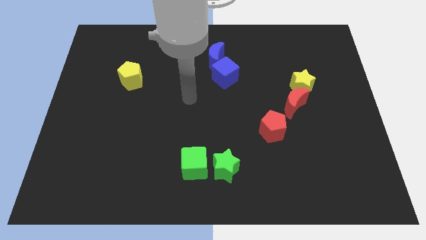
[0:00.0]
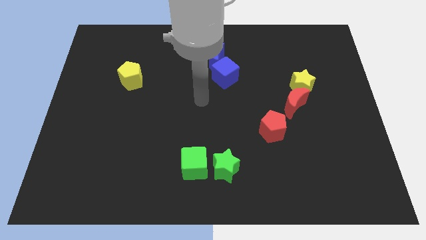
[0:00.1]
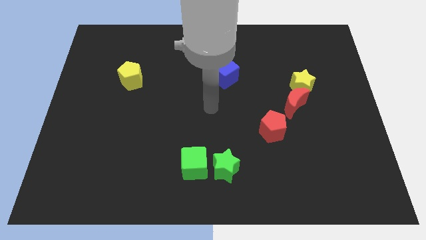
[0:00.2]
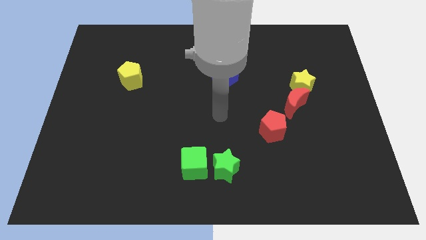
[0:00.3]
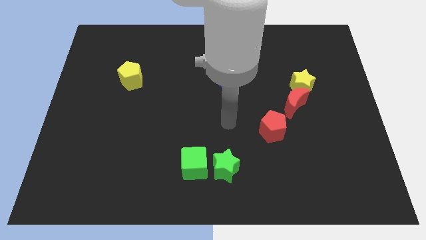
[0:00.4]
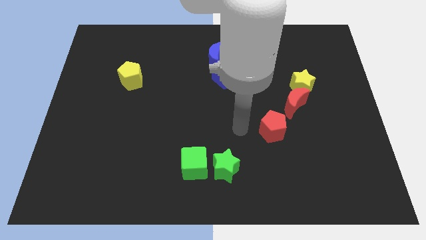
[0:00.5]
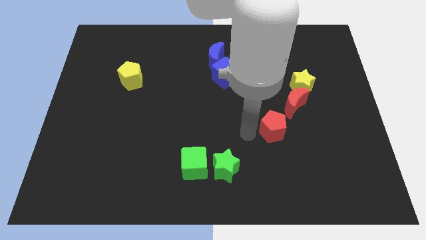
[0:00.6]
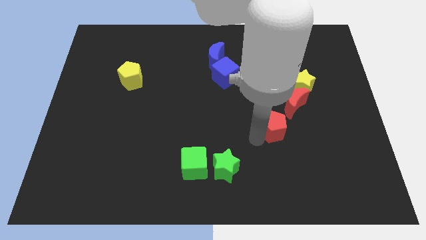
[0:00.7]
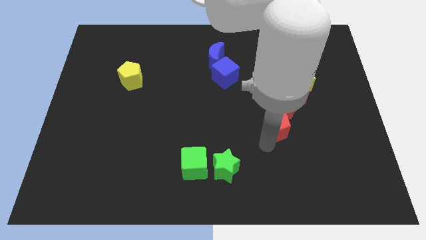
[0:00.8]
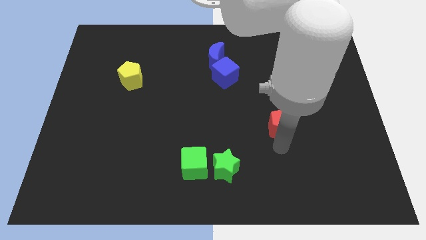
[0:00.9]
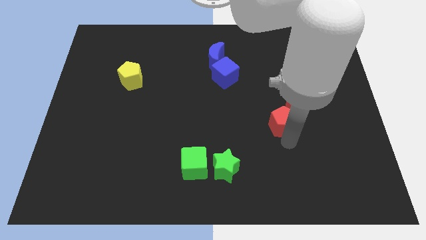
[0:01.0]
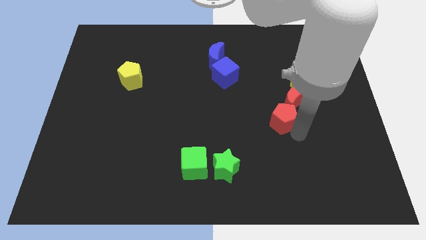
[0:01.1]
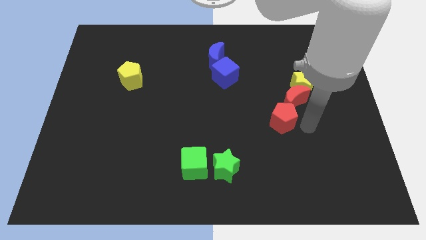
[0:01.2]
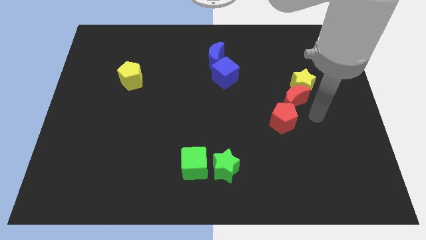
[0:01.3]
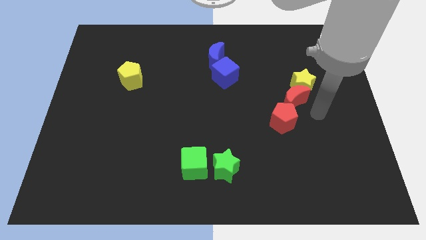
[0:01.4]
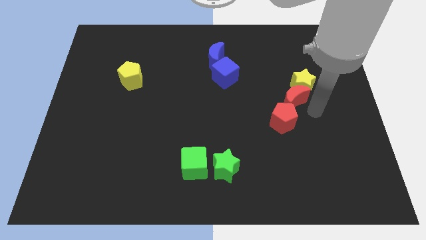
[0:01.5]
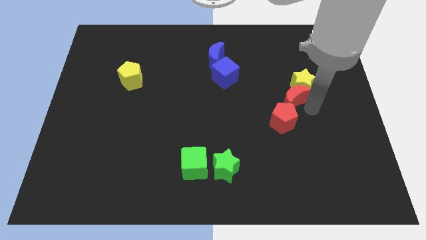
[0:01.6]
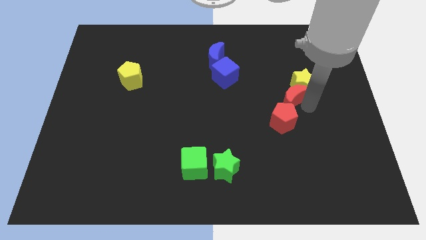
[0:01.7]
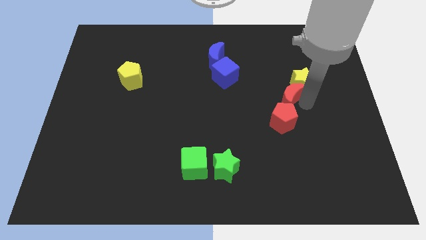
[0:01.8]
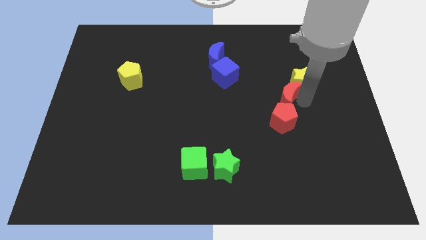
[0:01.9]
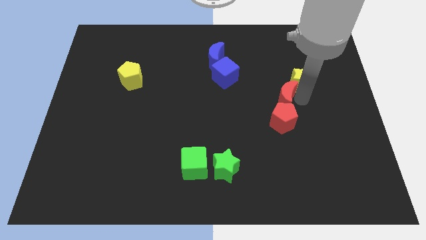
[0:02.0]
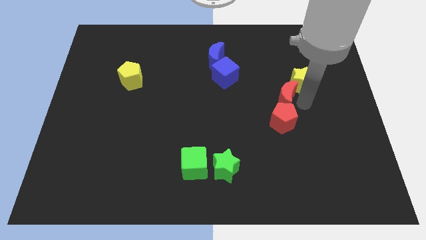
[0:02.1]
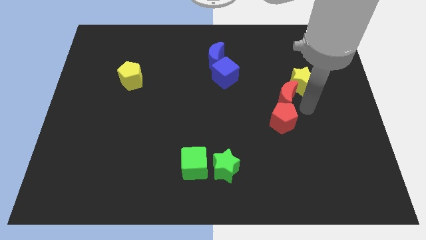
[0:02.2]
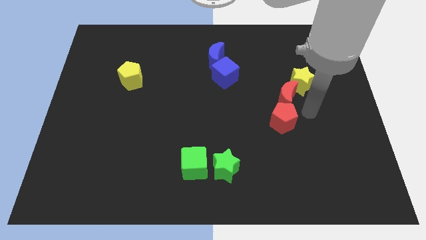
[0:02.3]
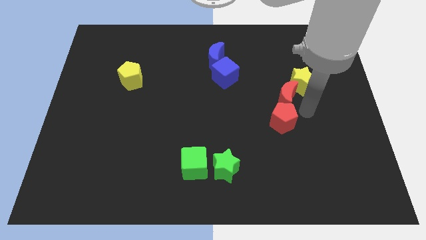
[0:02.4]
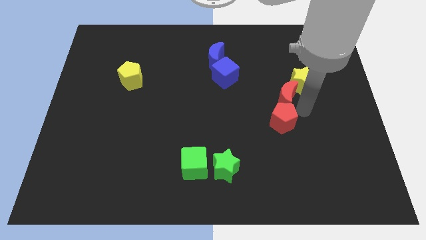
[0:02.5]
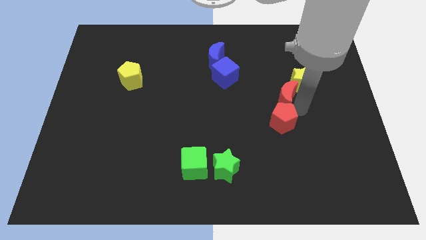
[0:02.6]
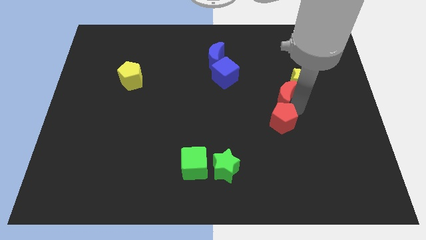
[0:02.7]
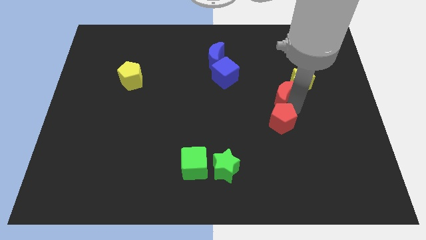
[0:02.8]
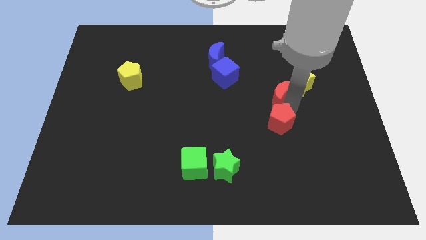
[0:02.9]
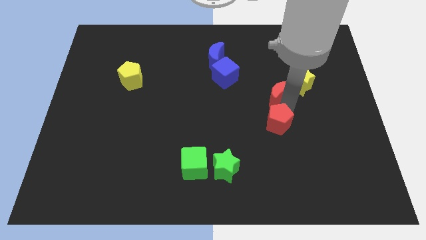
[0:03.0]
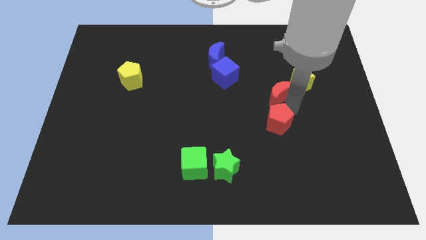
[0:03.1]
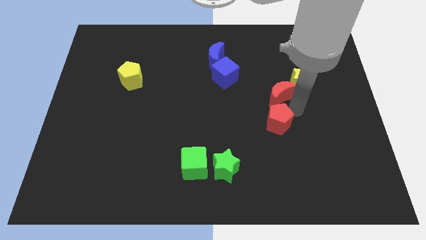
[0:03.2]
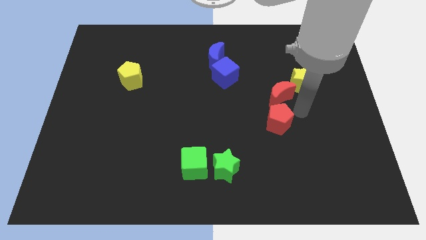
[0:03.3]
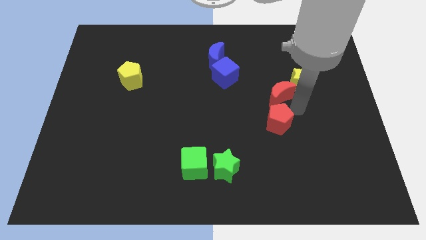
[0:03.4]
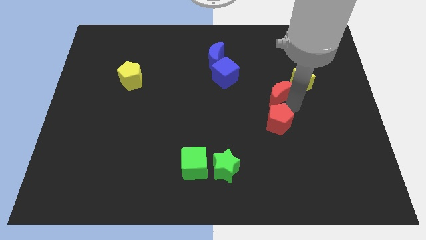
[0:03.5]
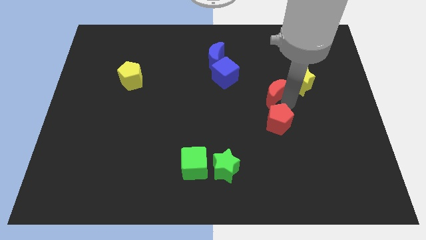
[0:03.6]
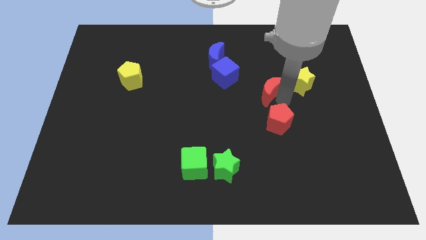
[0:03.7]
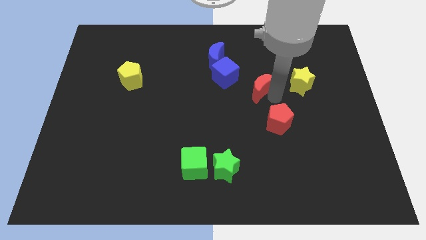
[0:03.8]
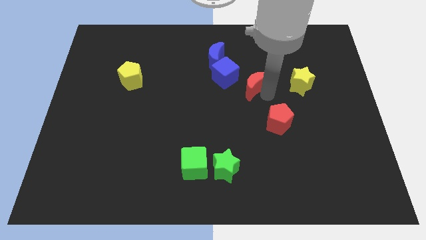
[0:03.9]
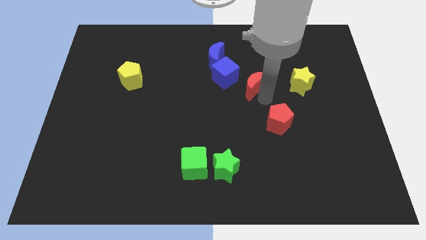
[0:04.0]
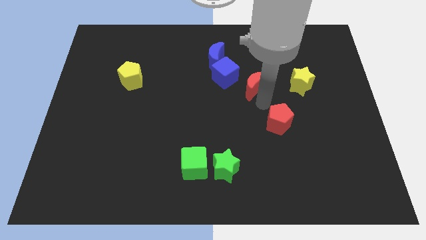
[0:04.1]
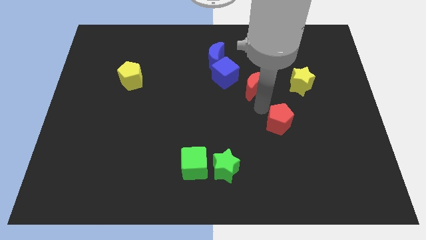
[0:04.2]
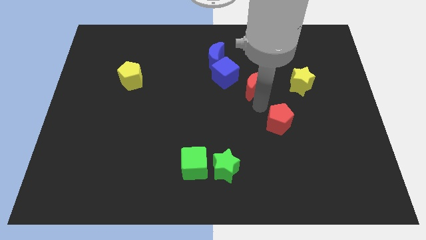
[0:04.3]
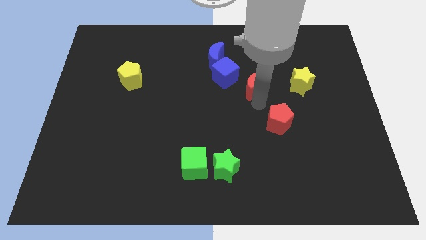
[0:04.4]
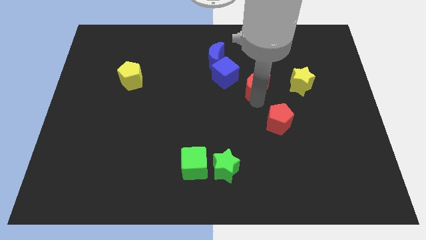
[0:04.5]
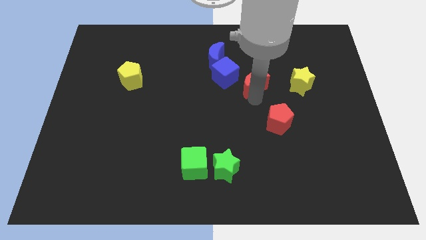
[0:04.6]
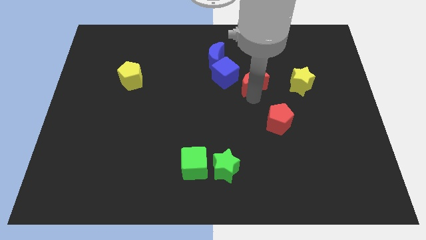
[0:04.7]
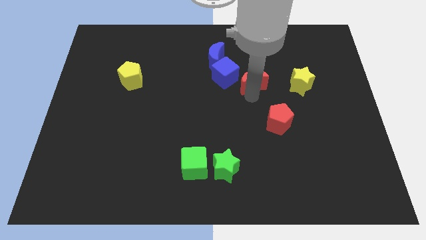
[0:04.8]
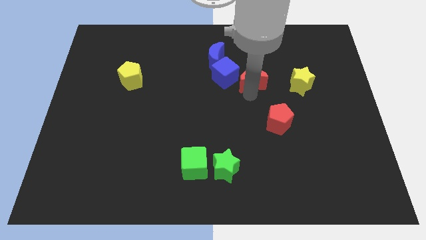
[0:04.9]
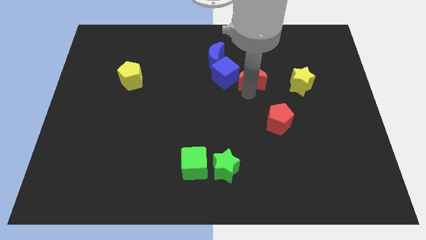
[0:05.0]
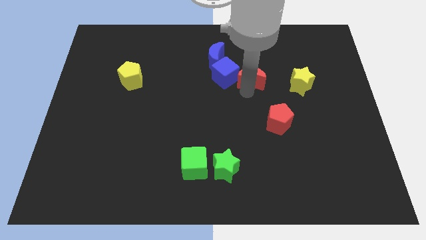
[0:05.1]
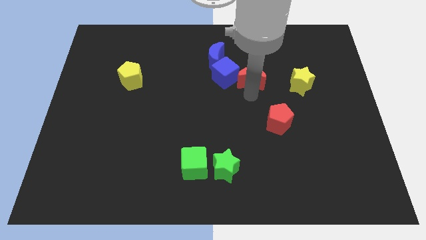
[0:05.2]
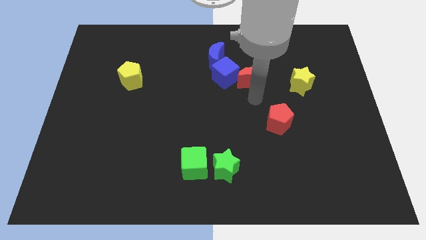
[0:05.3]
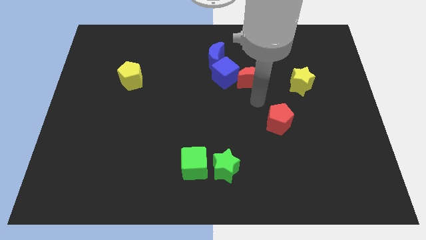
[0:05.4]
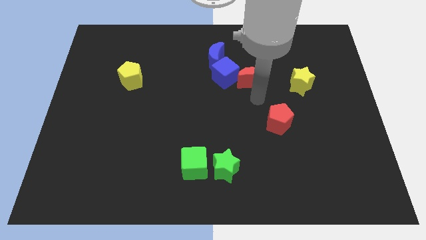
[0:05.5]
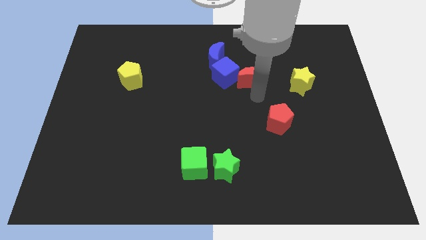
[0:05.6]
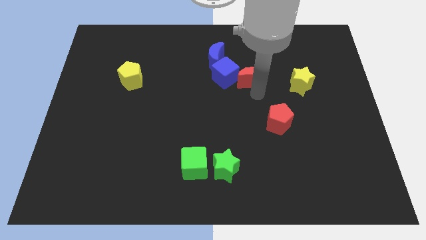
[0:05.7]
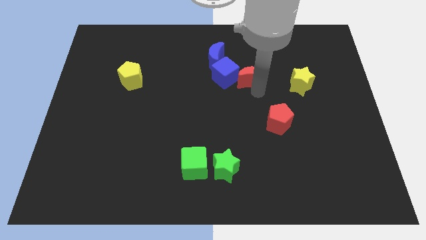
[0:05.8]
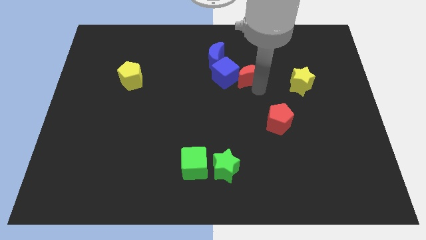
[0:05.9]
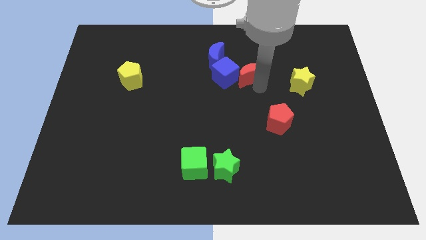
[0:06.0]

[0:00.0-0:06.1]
move the red moon diagonally up and to the right of the blue cube

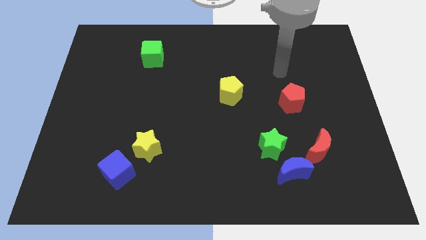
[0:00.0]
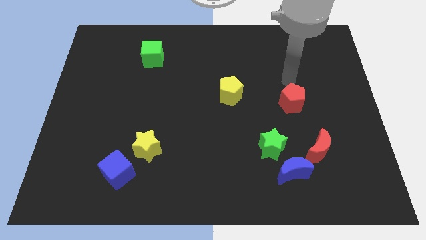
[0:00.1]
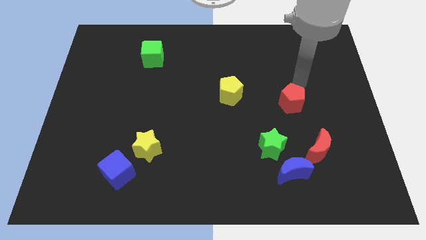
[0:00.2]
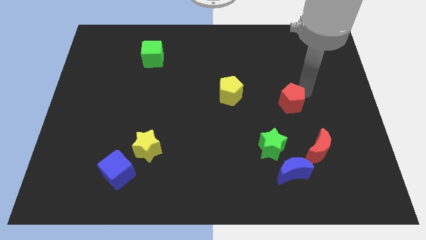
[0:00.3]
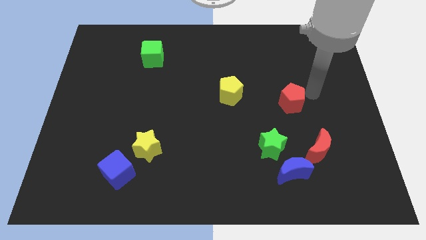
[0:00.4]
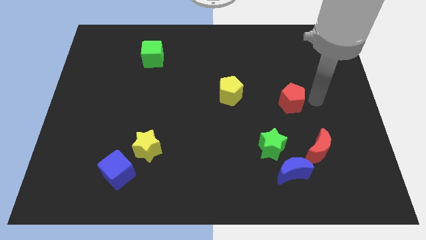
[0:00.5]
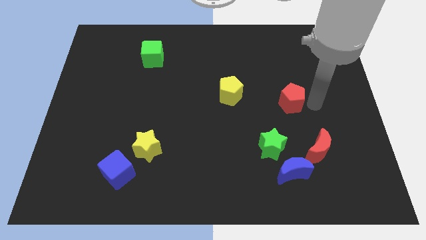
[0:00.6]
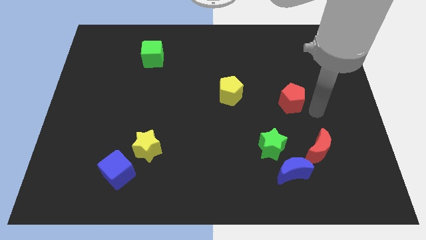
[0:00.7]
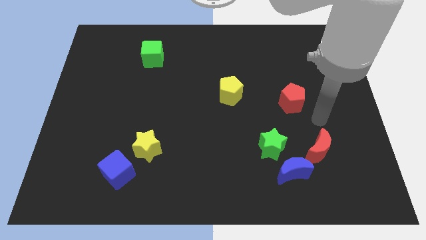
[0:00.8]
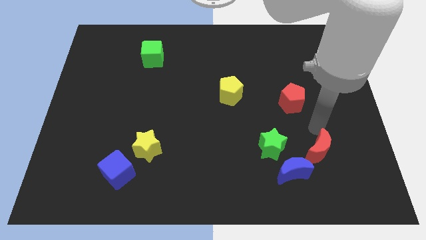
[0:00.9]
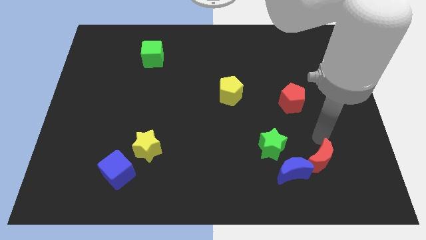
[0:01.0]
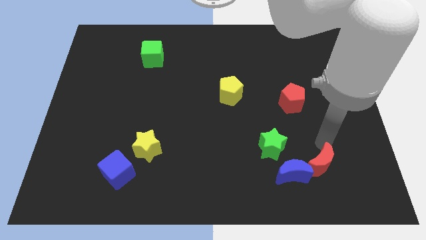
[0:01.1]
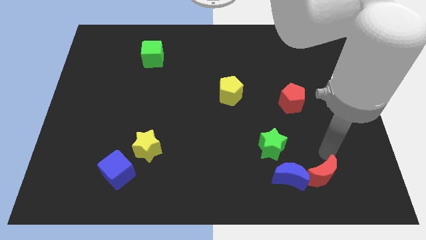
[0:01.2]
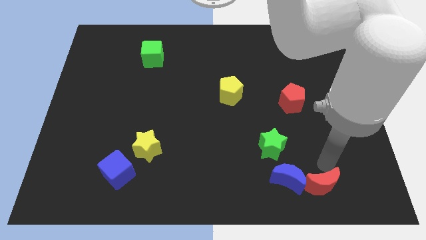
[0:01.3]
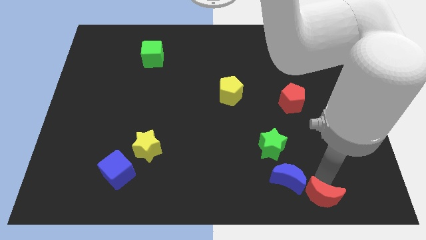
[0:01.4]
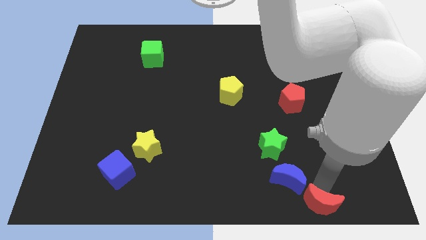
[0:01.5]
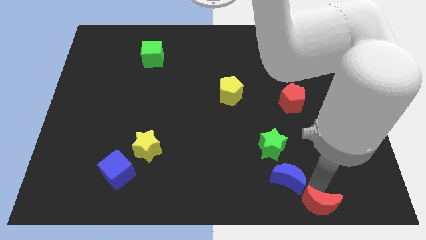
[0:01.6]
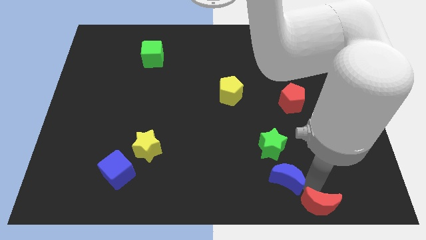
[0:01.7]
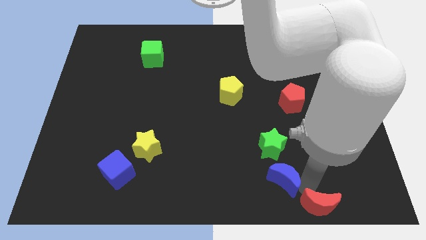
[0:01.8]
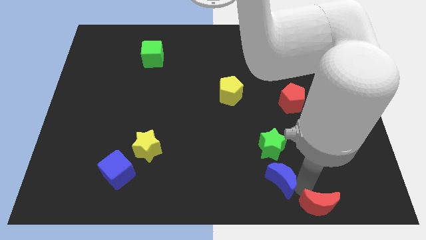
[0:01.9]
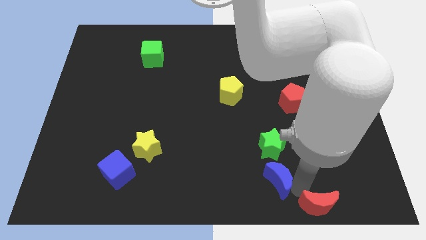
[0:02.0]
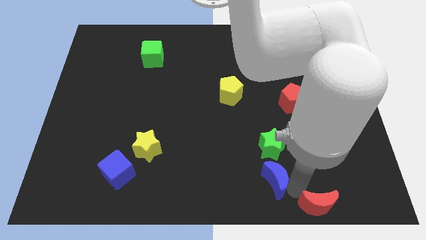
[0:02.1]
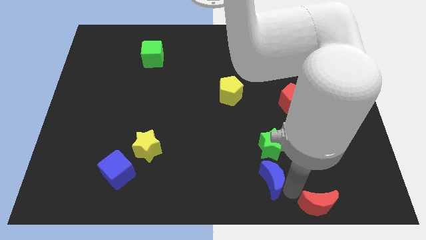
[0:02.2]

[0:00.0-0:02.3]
slide the blue moon to the bottom left of the green star
